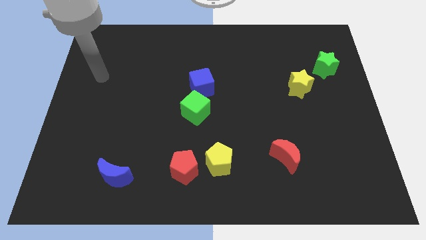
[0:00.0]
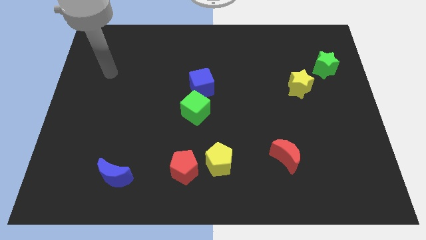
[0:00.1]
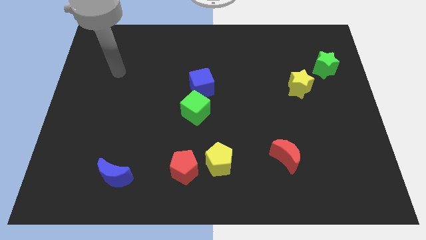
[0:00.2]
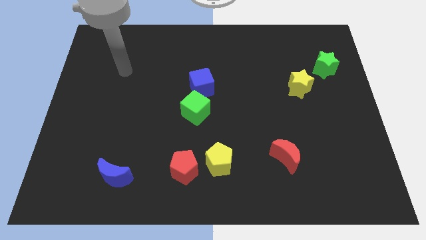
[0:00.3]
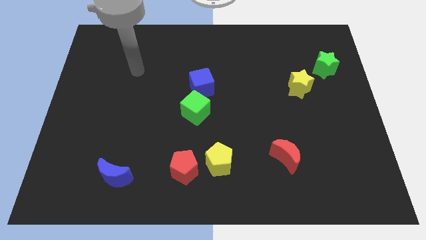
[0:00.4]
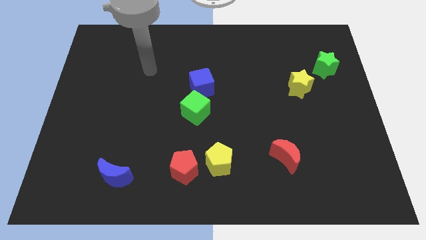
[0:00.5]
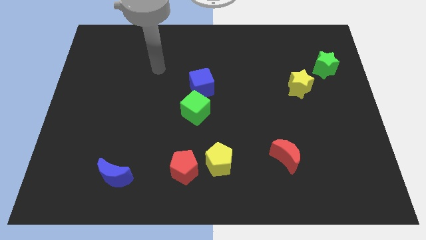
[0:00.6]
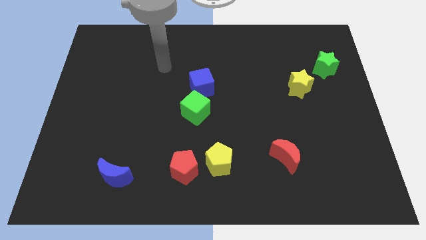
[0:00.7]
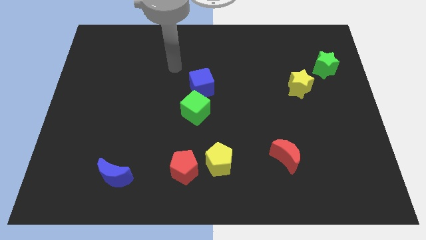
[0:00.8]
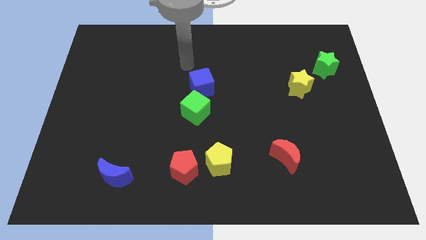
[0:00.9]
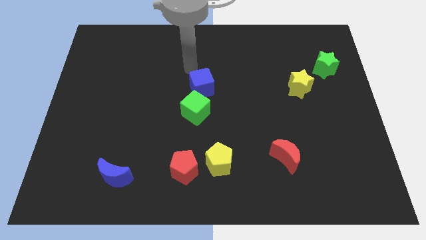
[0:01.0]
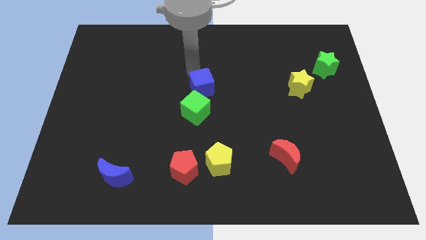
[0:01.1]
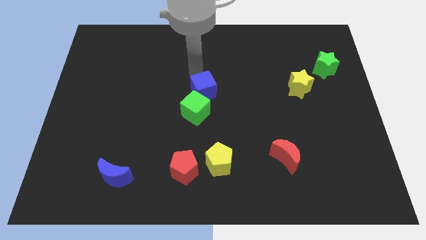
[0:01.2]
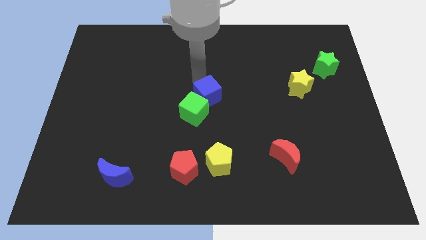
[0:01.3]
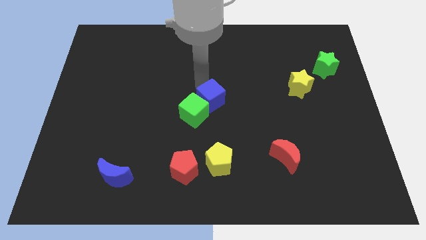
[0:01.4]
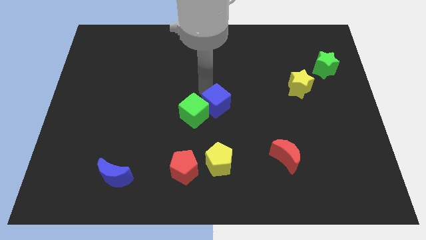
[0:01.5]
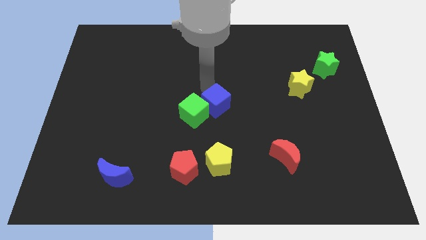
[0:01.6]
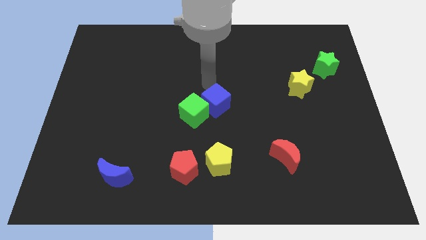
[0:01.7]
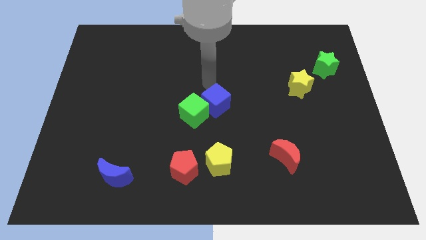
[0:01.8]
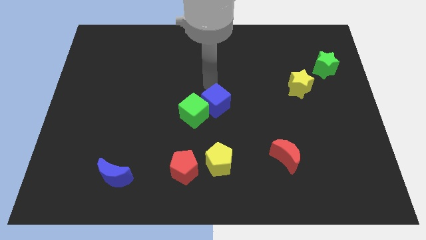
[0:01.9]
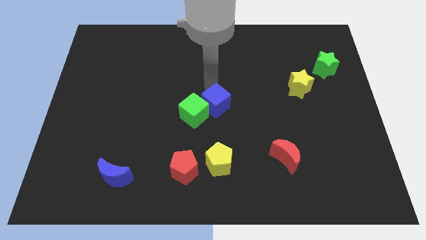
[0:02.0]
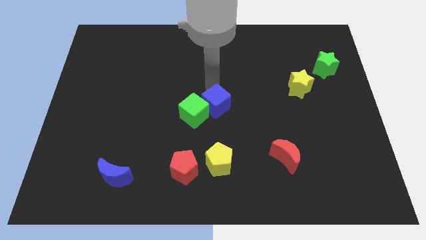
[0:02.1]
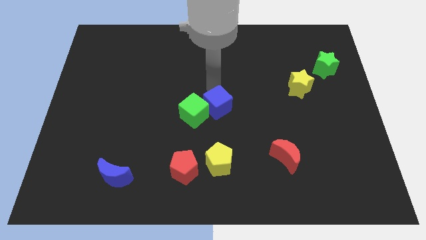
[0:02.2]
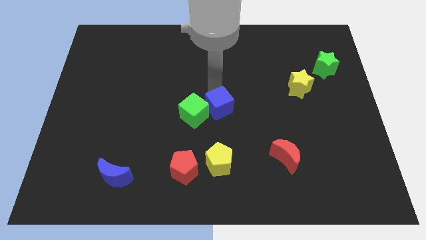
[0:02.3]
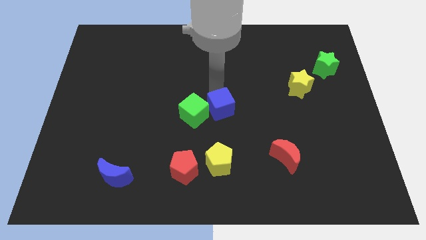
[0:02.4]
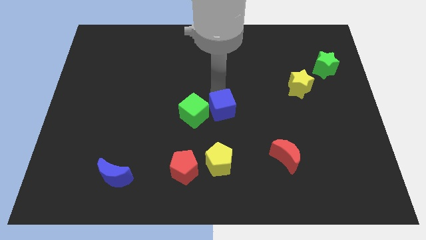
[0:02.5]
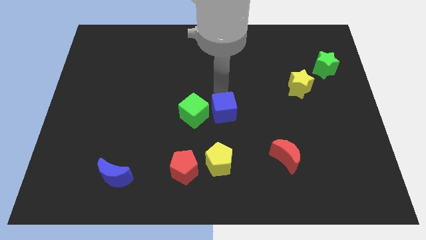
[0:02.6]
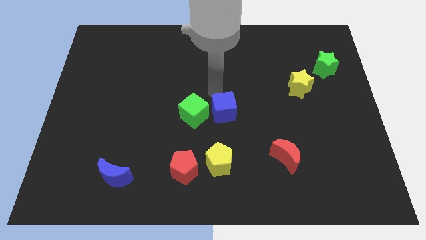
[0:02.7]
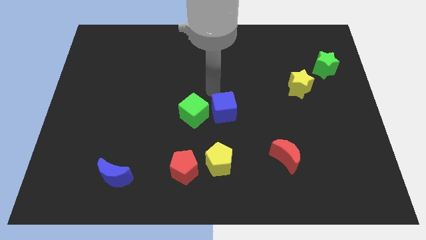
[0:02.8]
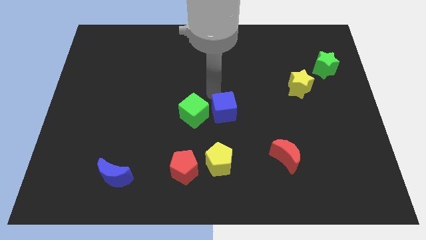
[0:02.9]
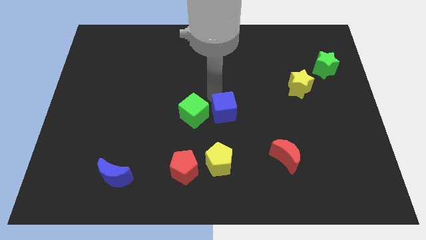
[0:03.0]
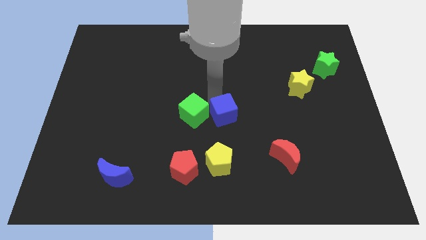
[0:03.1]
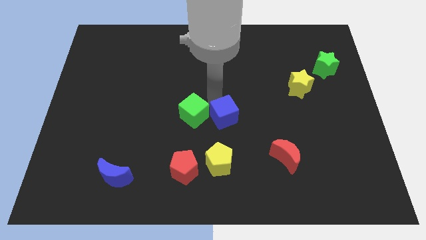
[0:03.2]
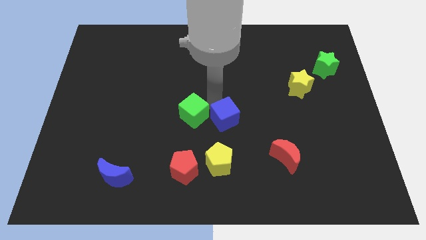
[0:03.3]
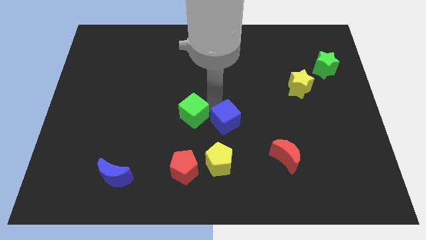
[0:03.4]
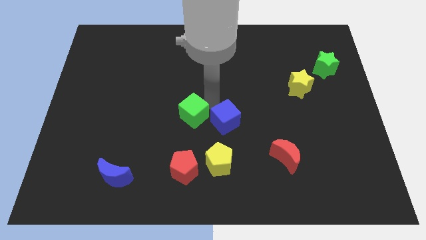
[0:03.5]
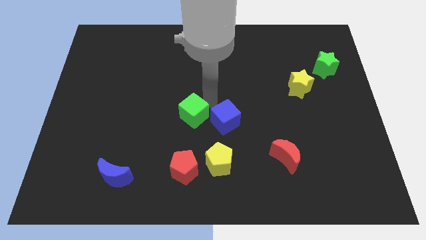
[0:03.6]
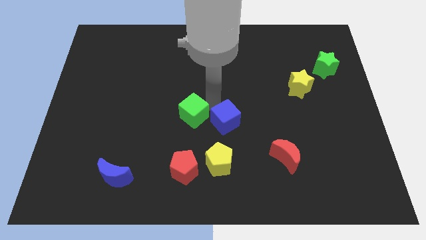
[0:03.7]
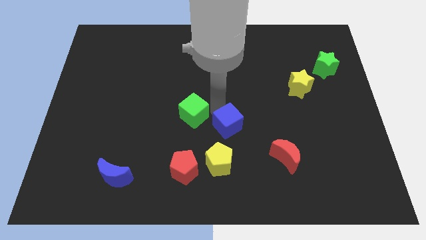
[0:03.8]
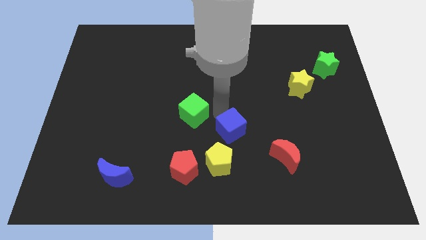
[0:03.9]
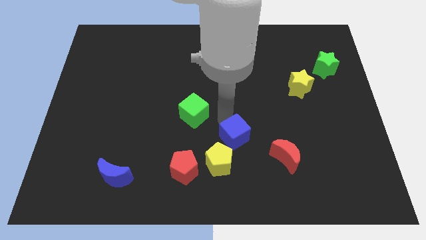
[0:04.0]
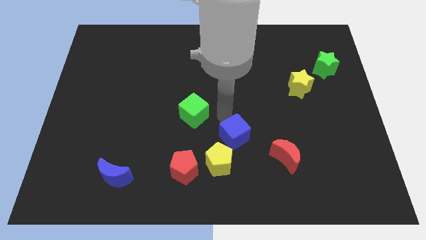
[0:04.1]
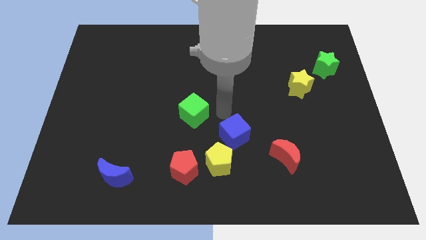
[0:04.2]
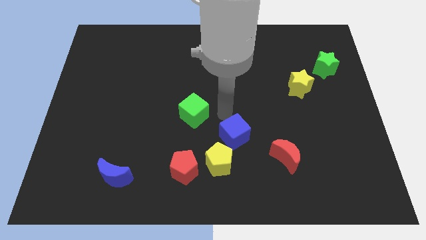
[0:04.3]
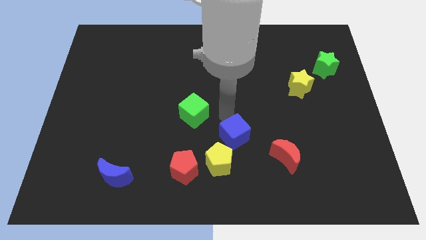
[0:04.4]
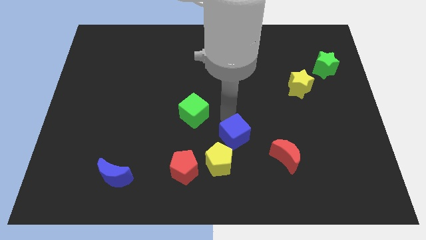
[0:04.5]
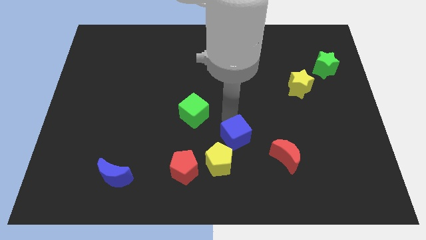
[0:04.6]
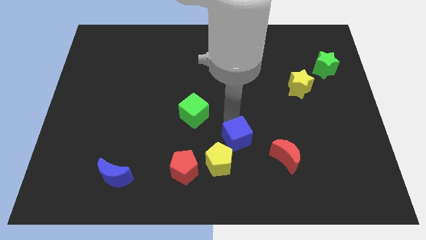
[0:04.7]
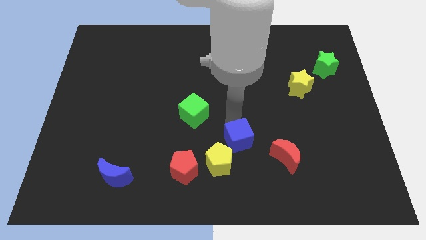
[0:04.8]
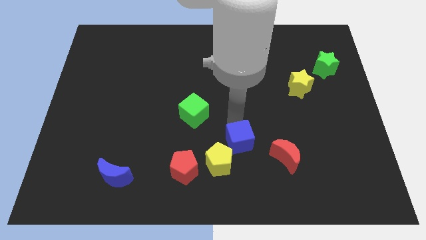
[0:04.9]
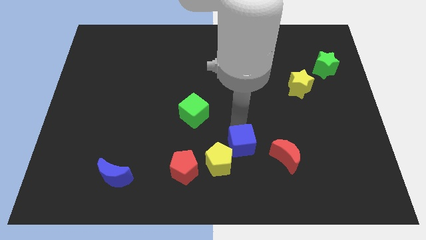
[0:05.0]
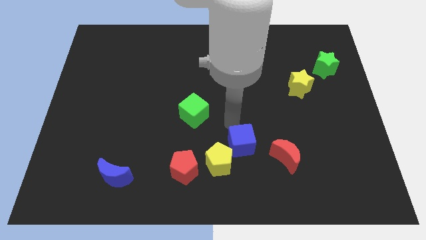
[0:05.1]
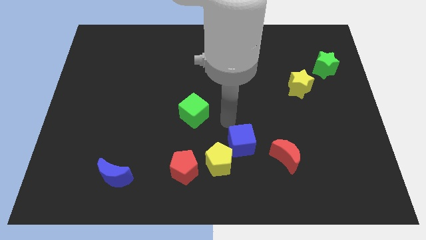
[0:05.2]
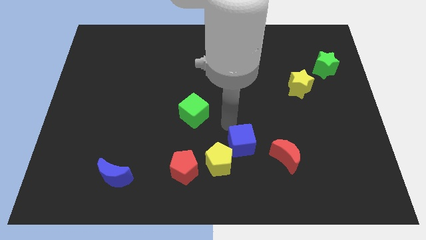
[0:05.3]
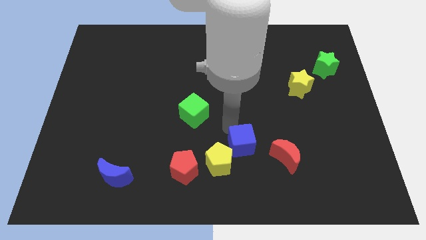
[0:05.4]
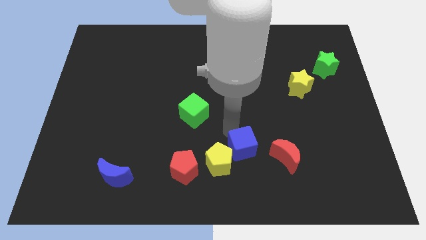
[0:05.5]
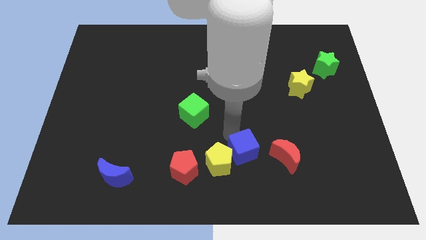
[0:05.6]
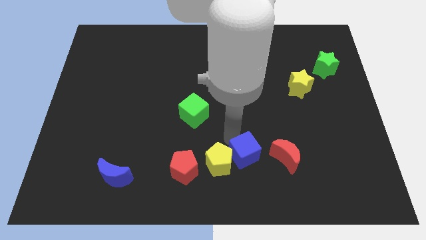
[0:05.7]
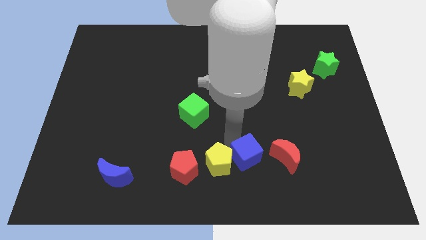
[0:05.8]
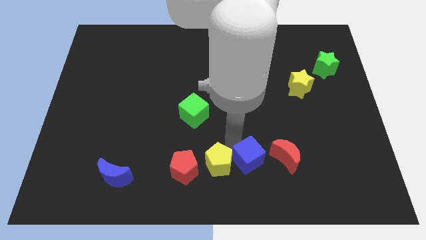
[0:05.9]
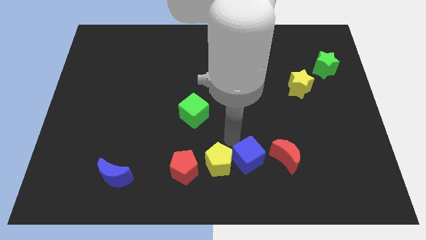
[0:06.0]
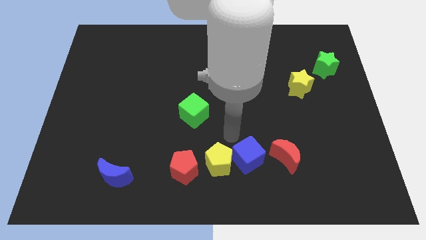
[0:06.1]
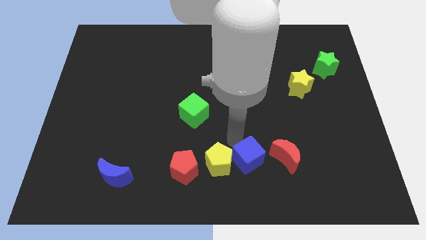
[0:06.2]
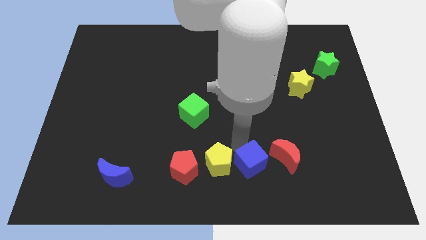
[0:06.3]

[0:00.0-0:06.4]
slide the blue cube to the bottom left side of the red moon

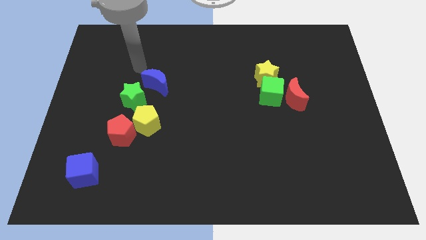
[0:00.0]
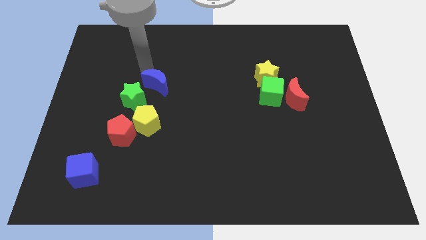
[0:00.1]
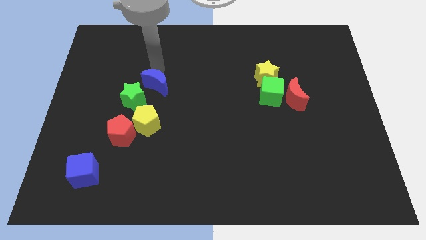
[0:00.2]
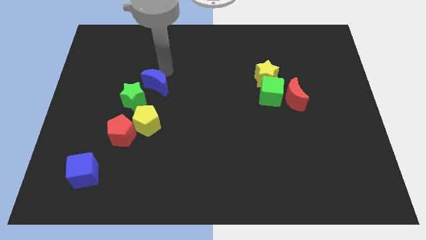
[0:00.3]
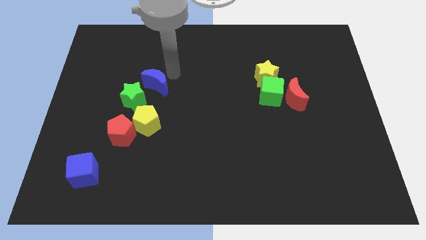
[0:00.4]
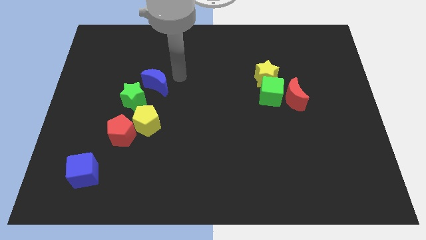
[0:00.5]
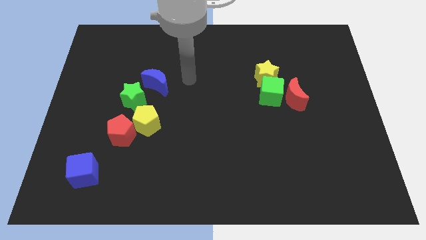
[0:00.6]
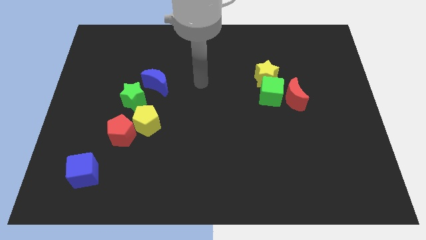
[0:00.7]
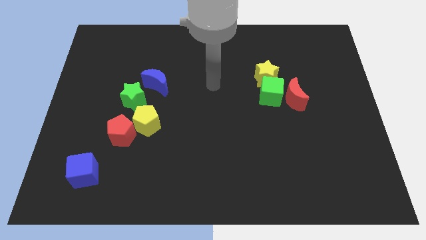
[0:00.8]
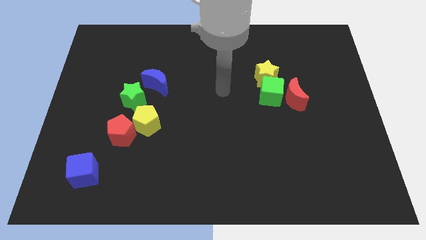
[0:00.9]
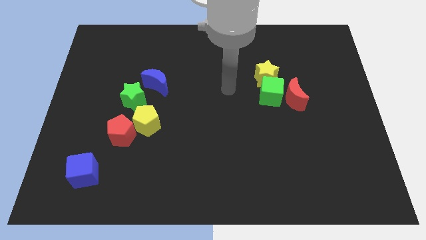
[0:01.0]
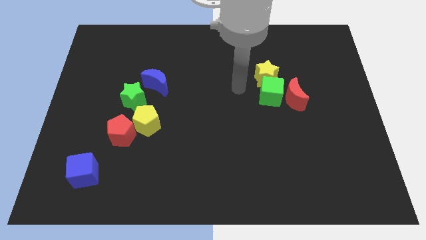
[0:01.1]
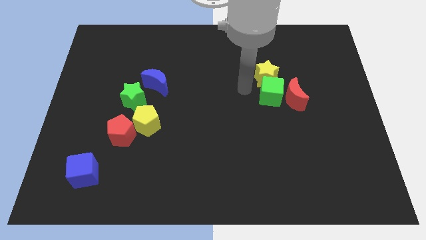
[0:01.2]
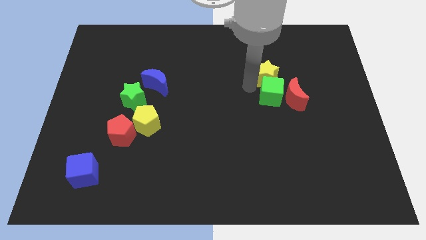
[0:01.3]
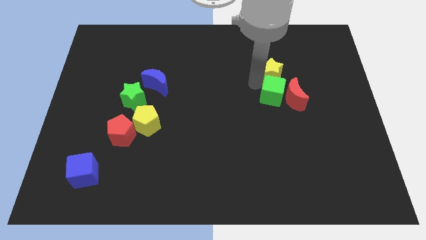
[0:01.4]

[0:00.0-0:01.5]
put the yellow star to the top side of the red moon
